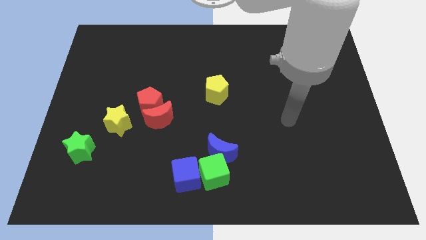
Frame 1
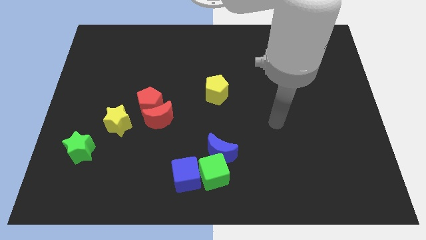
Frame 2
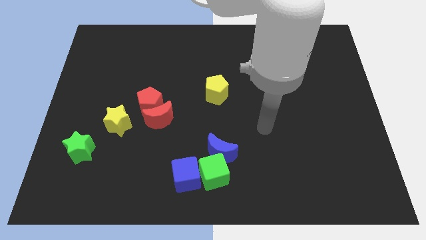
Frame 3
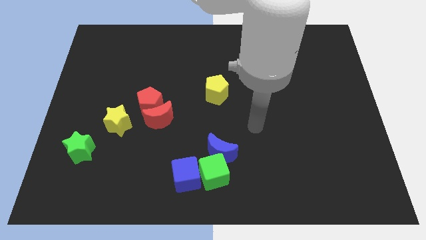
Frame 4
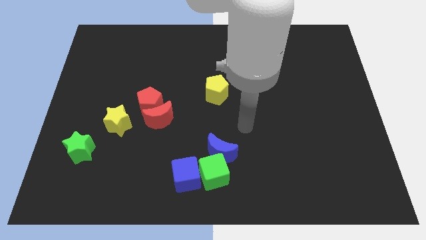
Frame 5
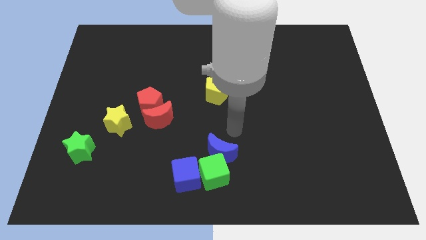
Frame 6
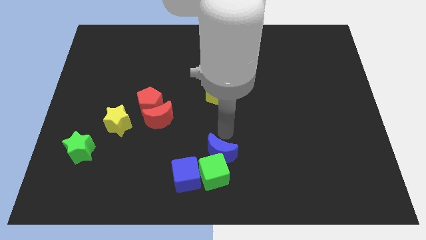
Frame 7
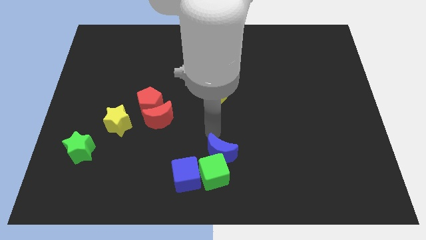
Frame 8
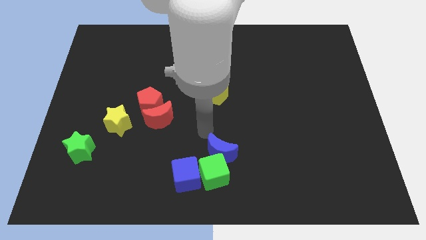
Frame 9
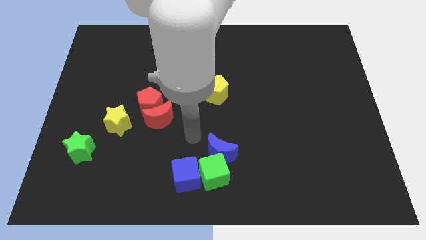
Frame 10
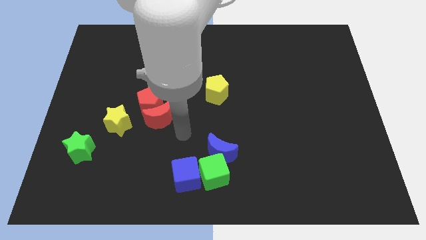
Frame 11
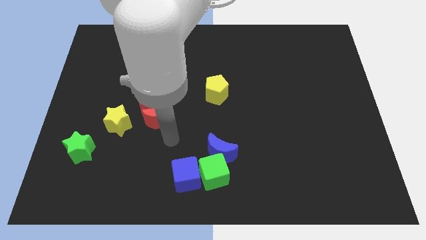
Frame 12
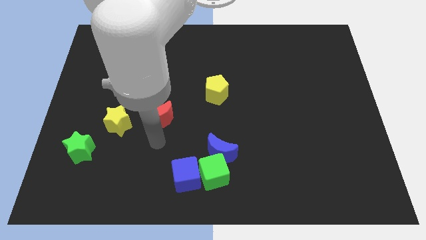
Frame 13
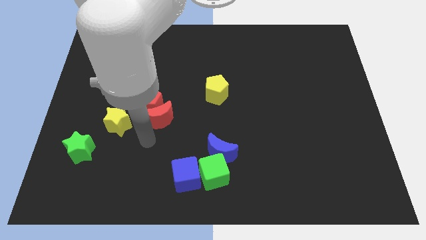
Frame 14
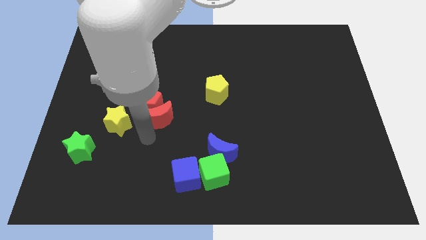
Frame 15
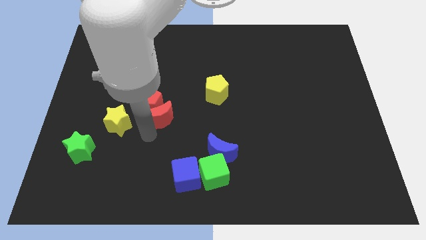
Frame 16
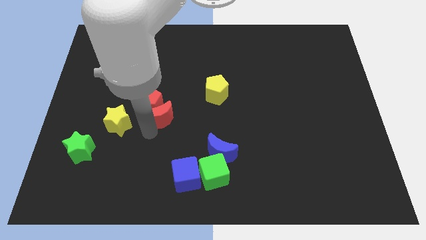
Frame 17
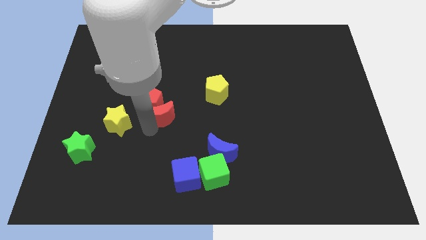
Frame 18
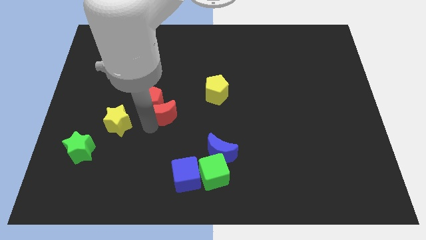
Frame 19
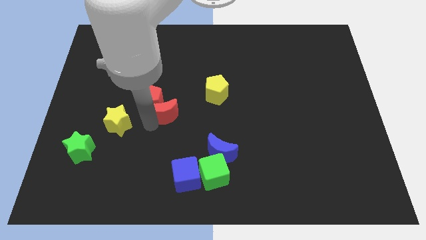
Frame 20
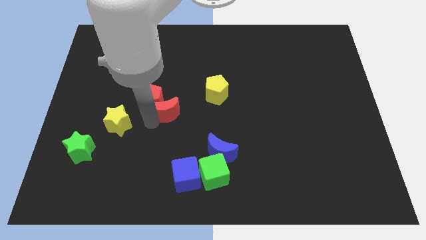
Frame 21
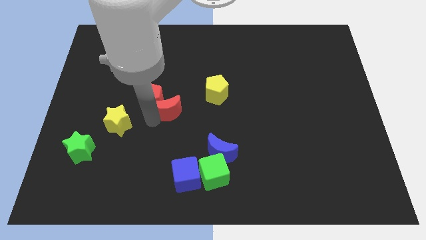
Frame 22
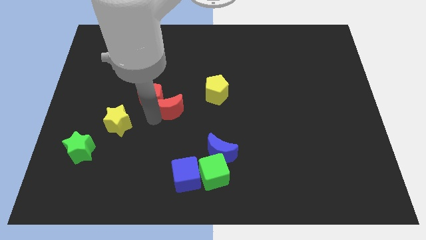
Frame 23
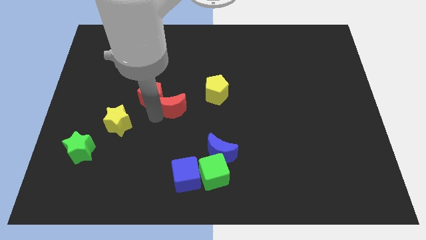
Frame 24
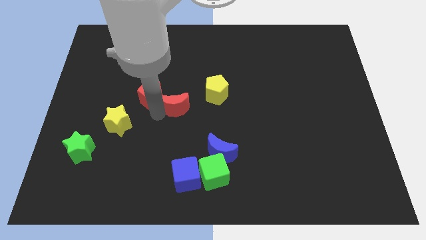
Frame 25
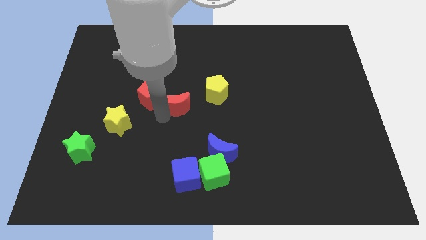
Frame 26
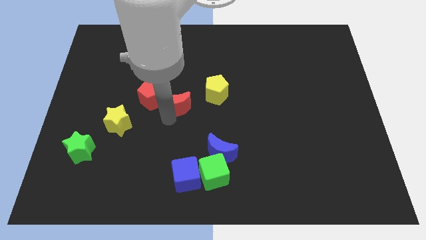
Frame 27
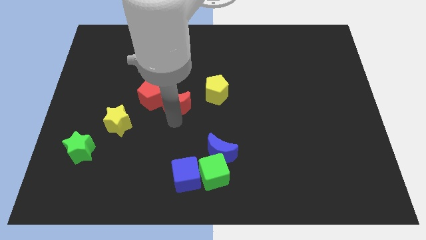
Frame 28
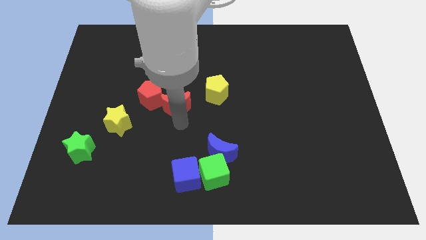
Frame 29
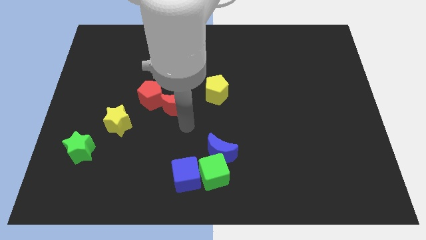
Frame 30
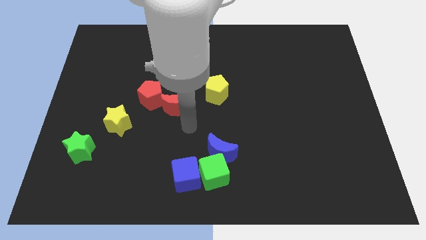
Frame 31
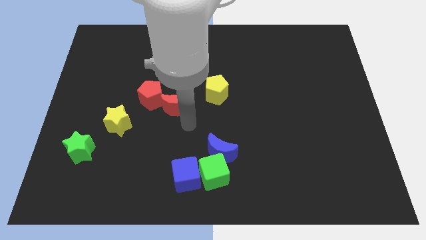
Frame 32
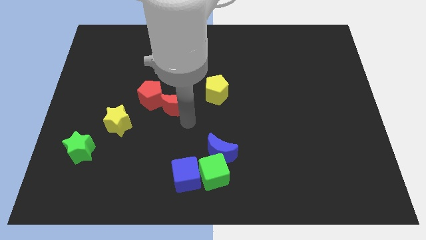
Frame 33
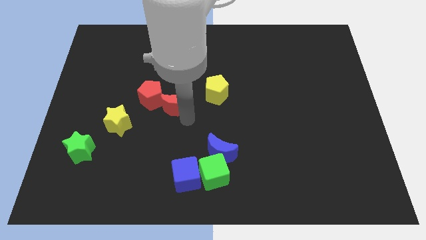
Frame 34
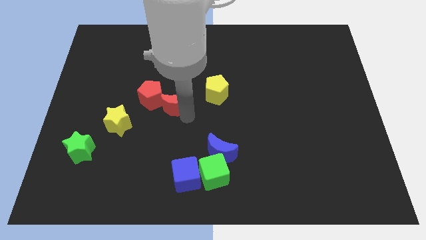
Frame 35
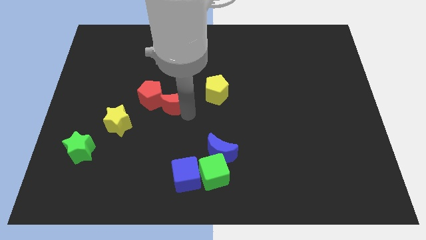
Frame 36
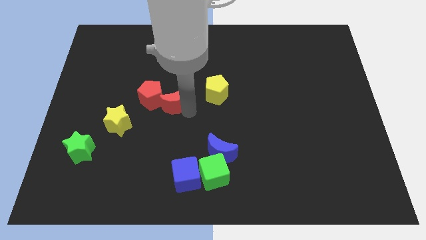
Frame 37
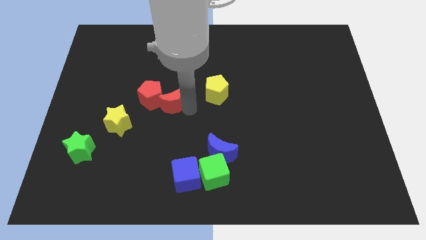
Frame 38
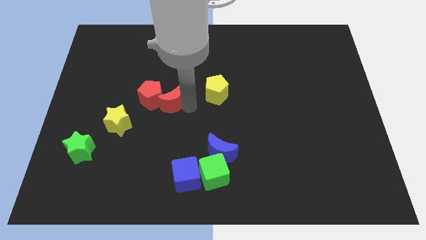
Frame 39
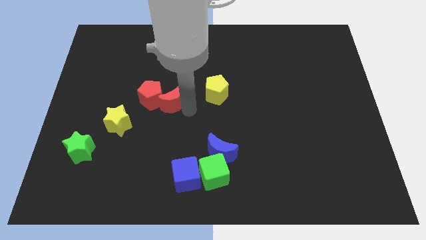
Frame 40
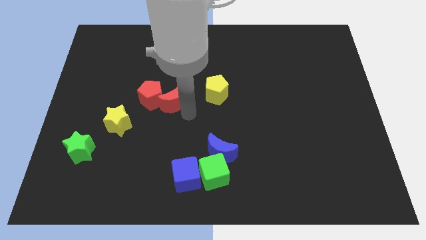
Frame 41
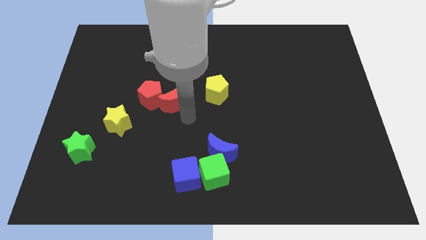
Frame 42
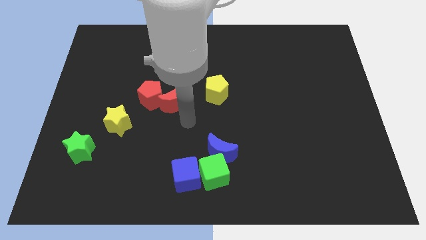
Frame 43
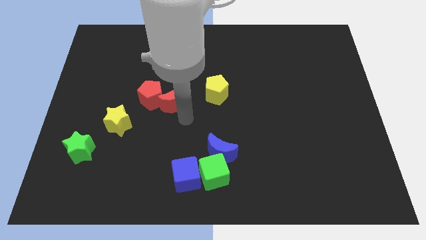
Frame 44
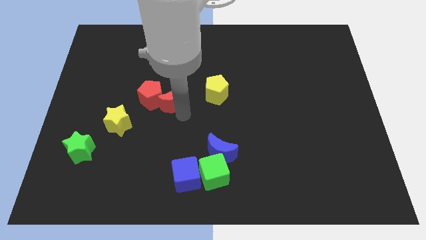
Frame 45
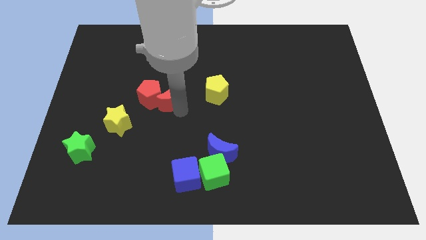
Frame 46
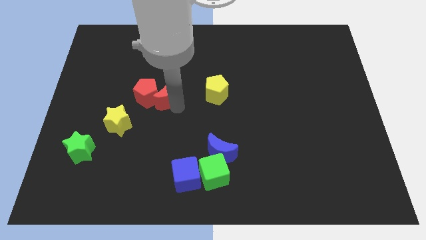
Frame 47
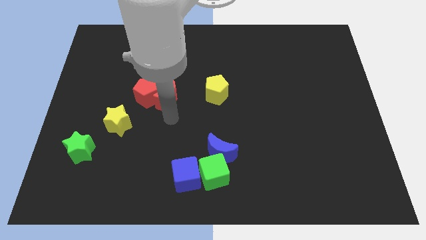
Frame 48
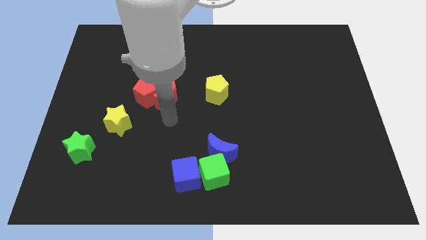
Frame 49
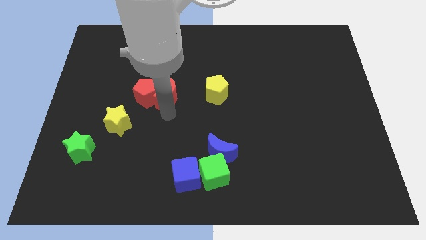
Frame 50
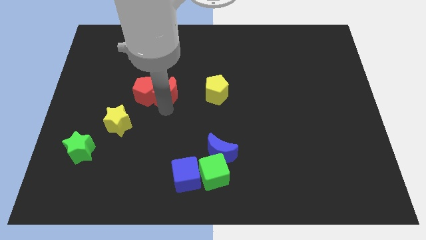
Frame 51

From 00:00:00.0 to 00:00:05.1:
move the red moon upwards slightly

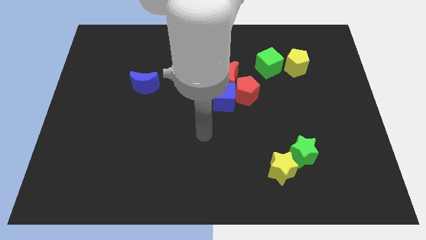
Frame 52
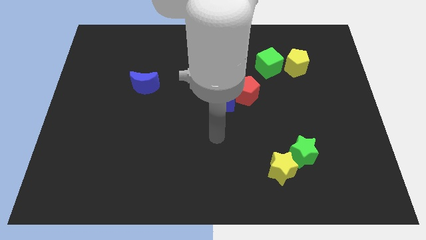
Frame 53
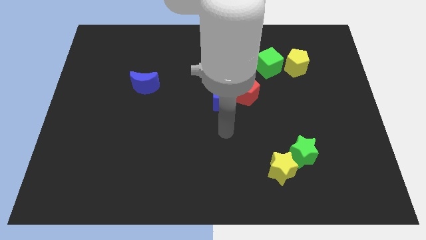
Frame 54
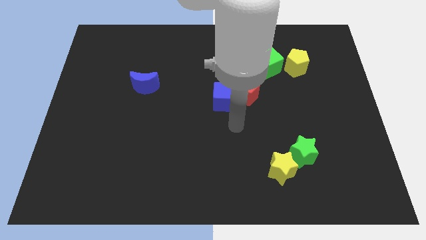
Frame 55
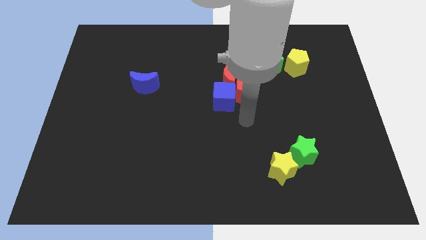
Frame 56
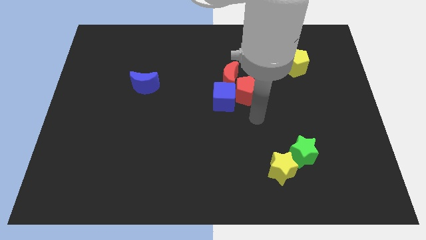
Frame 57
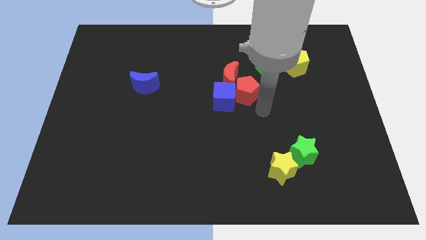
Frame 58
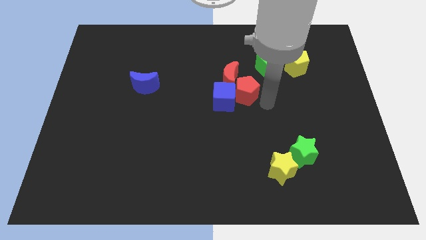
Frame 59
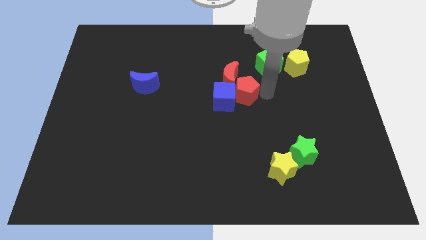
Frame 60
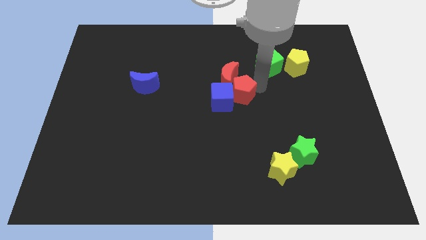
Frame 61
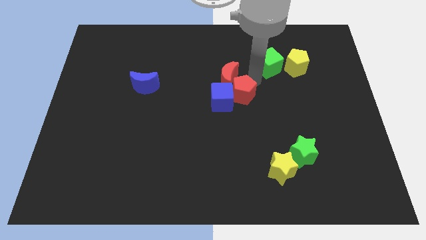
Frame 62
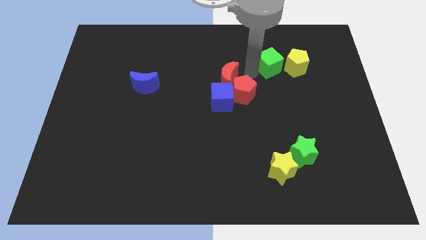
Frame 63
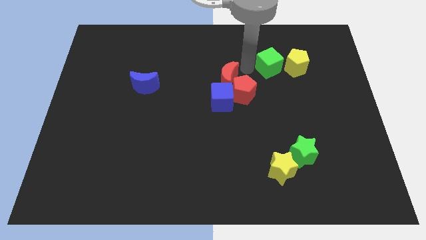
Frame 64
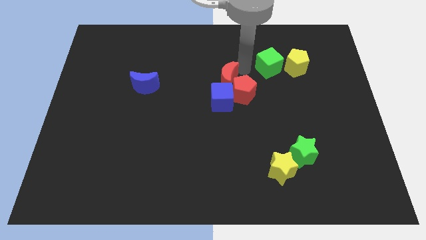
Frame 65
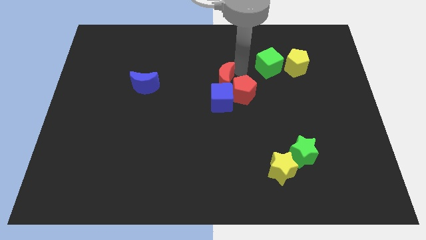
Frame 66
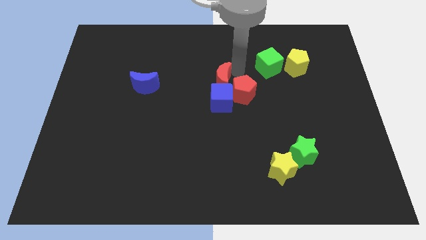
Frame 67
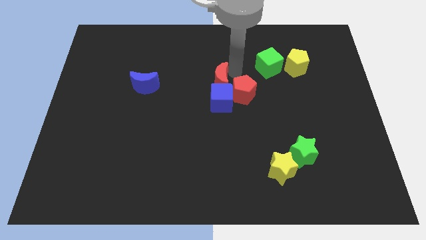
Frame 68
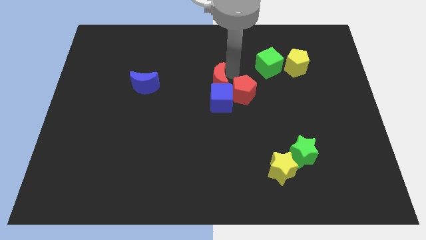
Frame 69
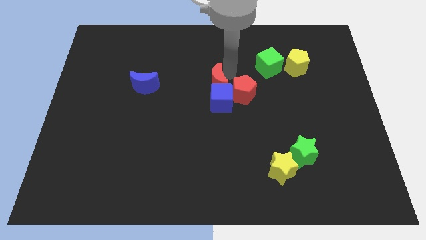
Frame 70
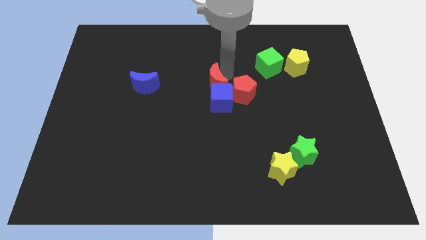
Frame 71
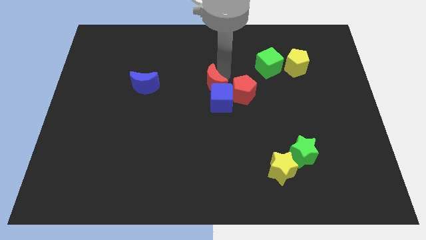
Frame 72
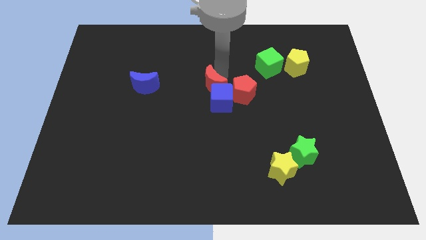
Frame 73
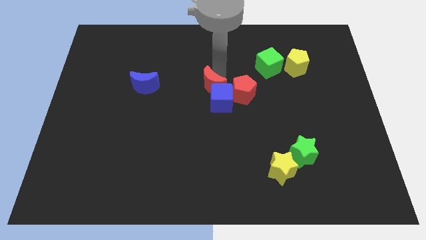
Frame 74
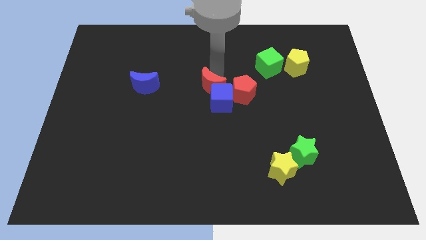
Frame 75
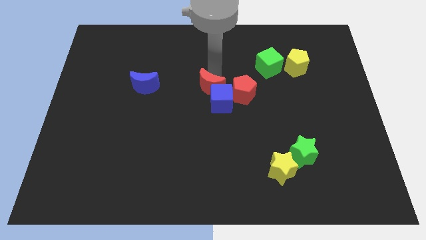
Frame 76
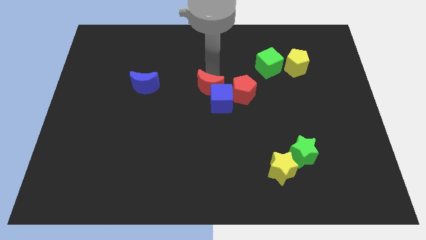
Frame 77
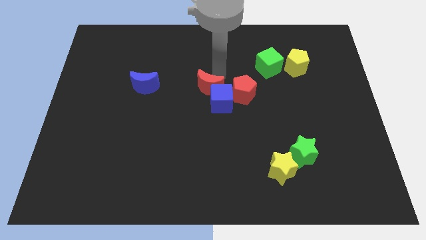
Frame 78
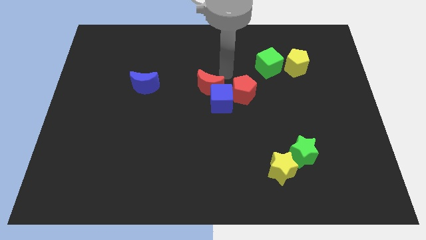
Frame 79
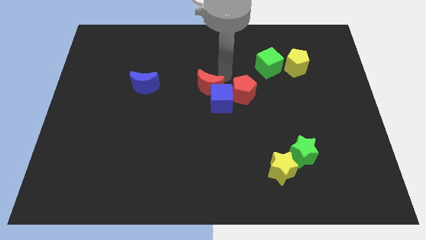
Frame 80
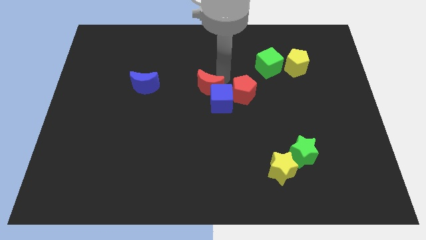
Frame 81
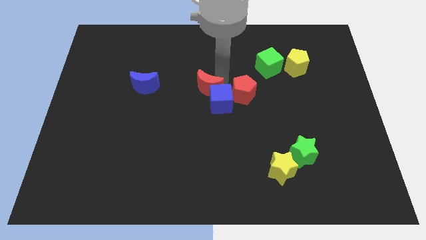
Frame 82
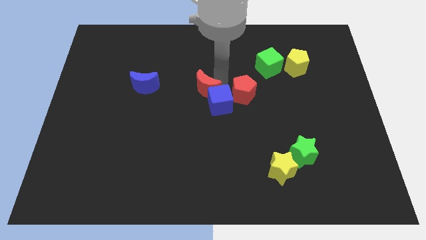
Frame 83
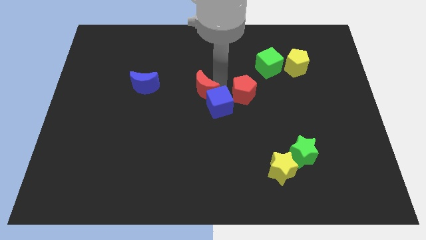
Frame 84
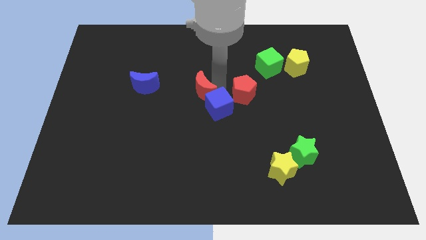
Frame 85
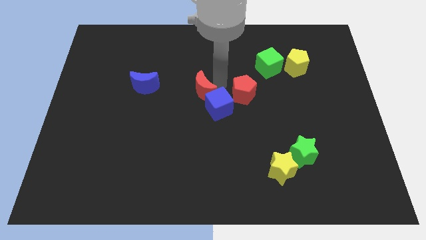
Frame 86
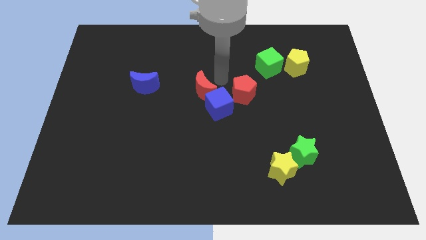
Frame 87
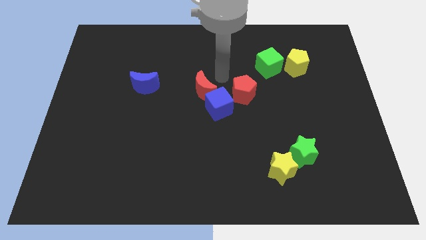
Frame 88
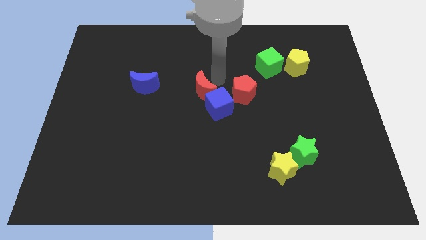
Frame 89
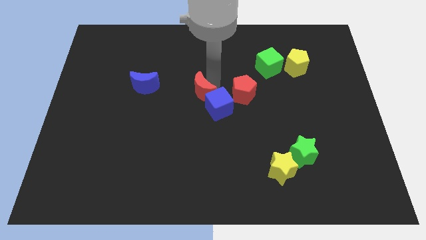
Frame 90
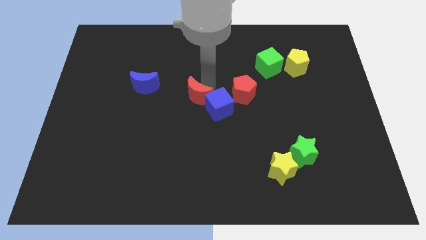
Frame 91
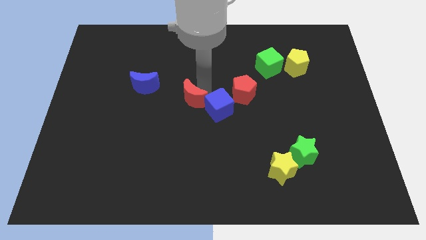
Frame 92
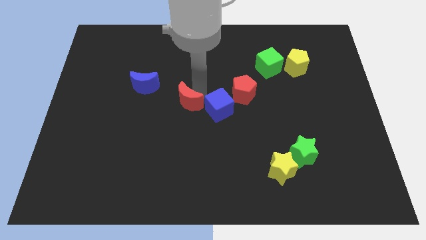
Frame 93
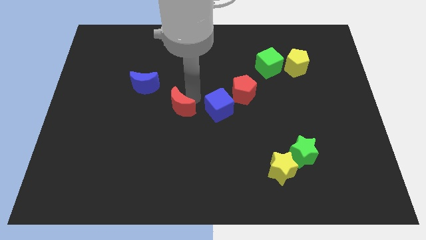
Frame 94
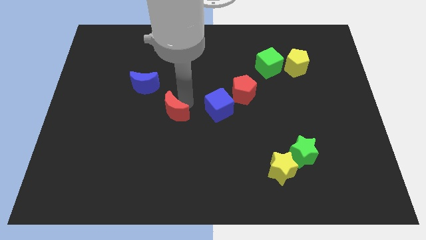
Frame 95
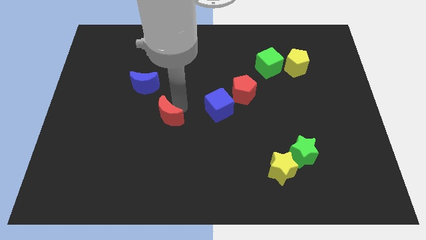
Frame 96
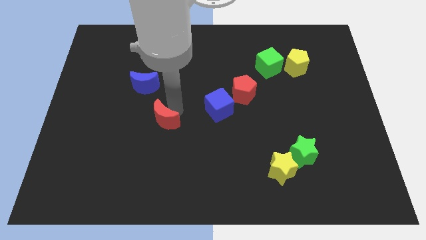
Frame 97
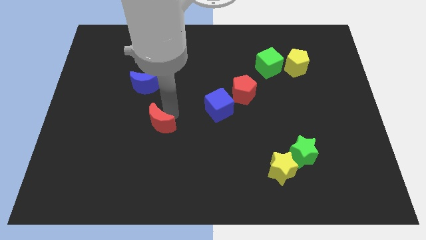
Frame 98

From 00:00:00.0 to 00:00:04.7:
push the red moon down and then to the left
